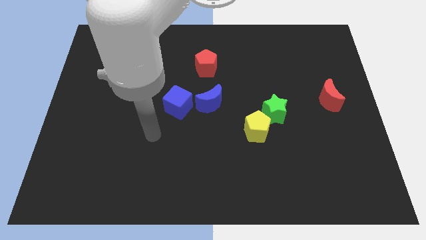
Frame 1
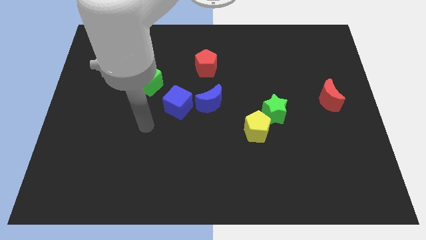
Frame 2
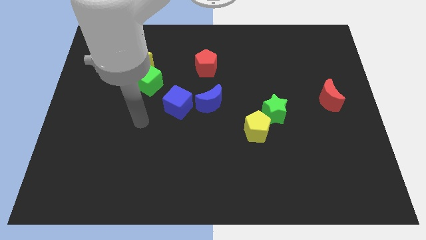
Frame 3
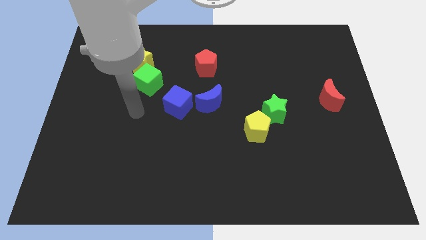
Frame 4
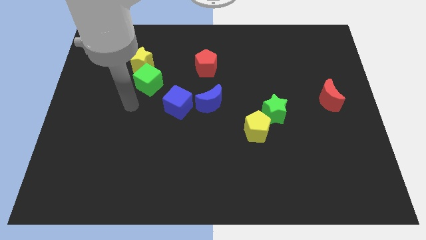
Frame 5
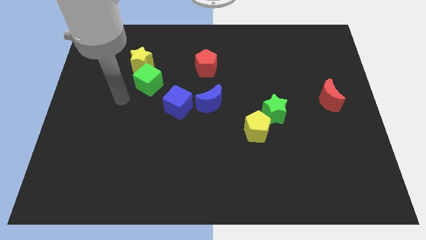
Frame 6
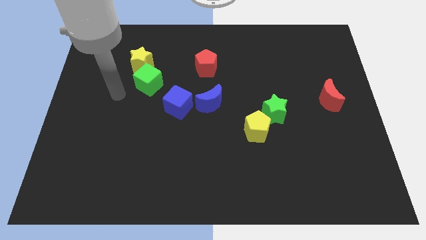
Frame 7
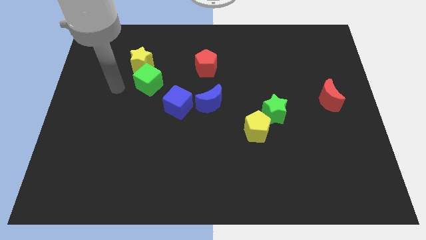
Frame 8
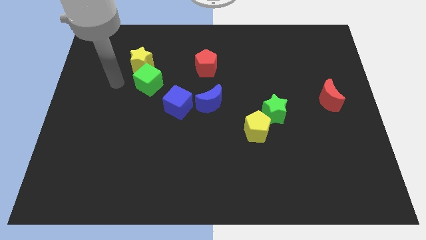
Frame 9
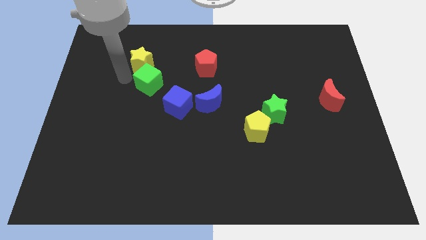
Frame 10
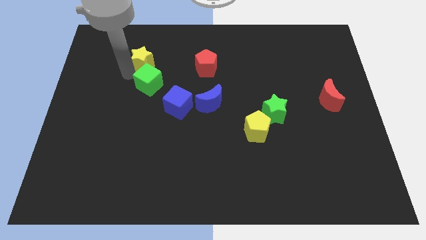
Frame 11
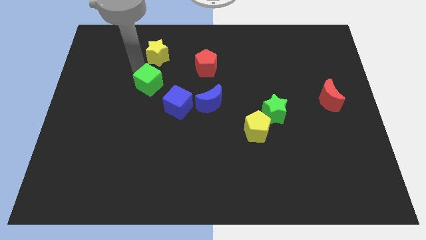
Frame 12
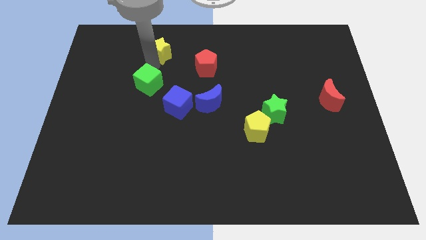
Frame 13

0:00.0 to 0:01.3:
move the green cube away from the yellow star

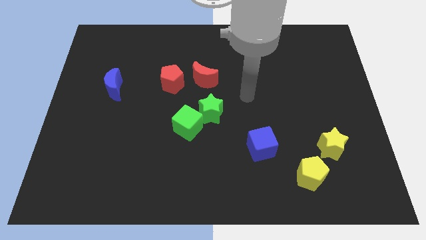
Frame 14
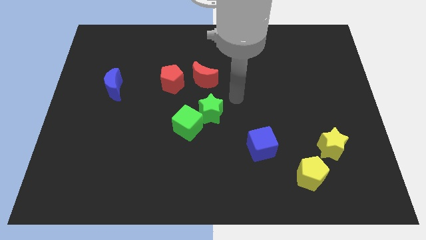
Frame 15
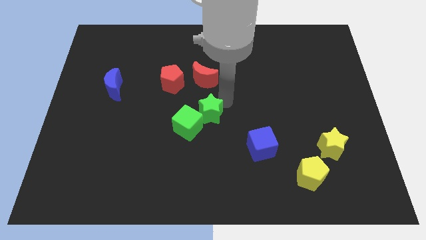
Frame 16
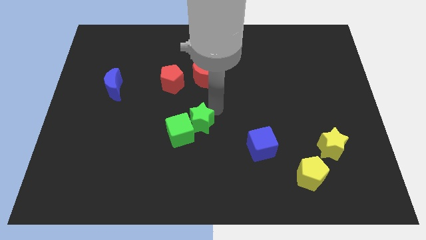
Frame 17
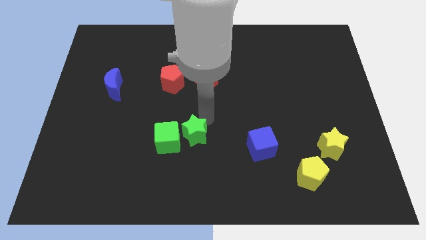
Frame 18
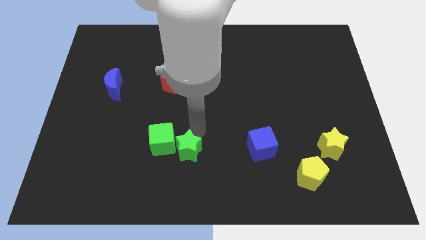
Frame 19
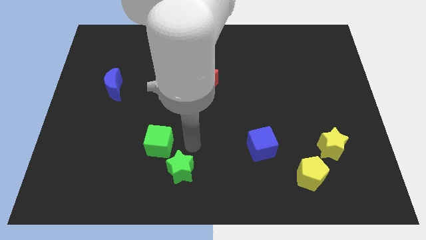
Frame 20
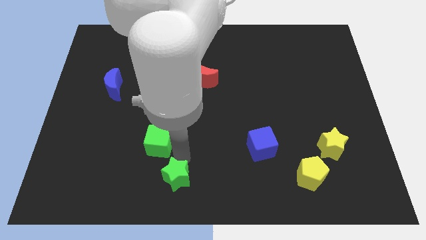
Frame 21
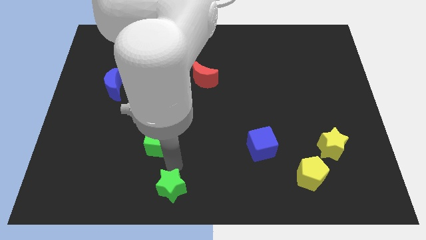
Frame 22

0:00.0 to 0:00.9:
pull the green cube apart from the green star

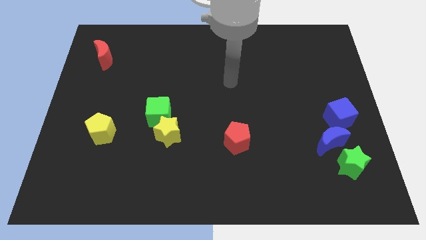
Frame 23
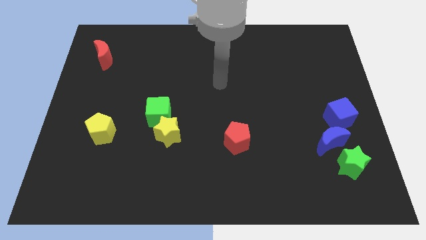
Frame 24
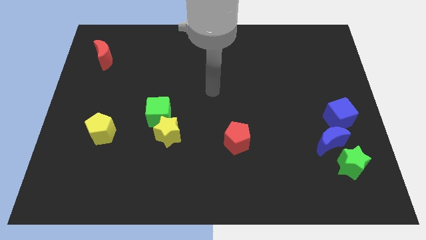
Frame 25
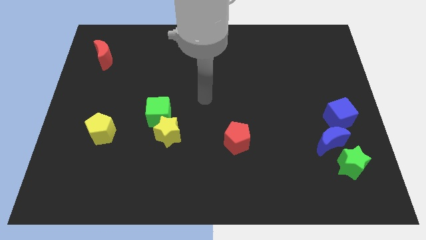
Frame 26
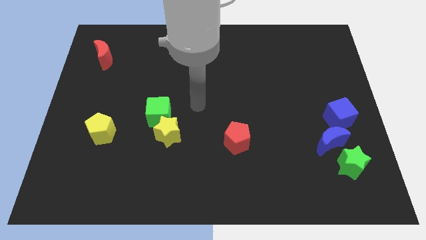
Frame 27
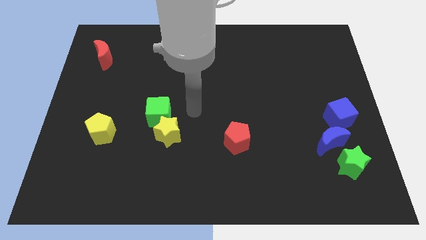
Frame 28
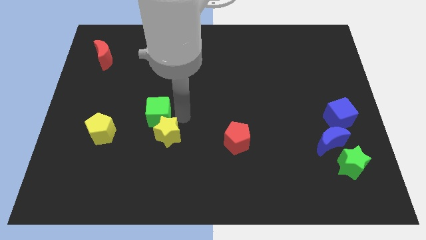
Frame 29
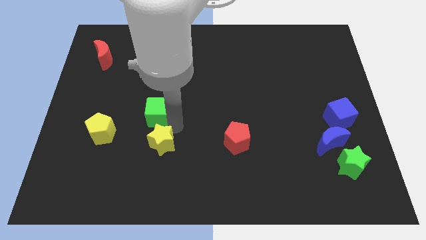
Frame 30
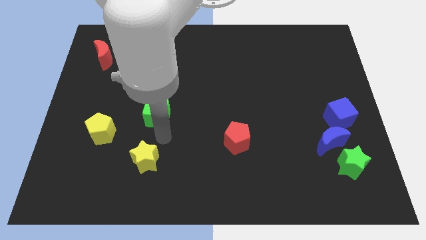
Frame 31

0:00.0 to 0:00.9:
pull the green cube apart from the yellow star

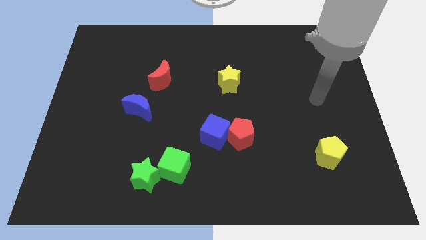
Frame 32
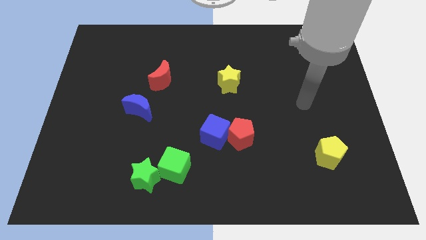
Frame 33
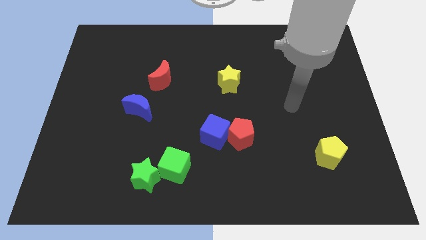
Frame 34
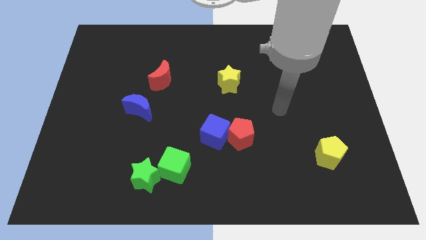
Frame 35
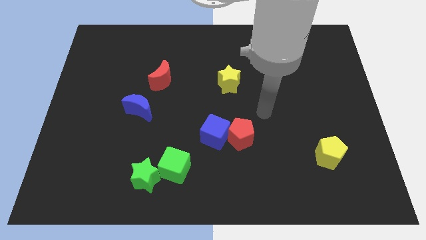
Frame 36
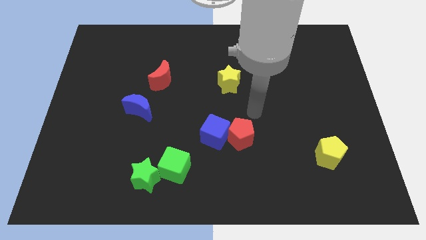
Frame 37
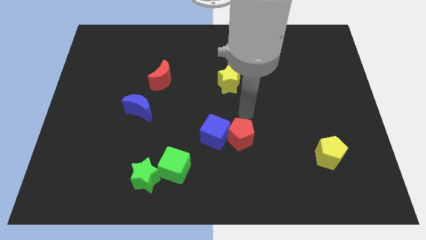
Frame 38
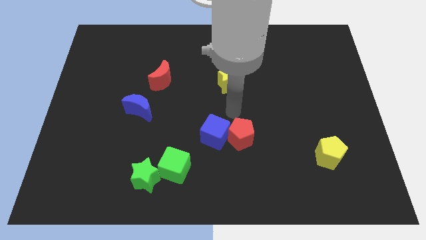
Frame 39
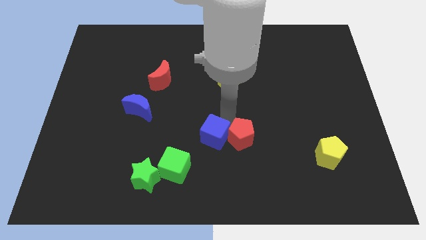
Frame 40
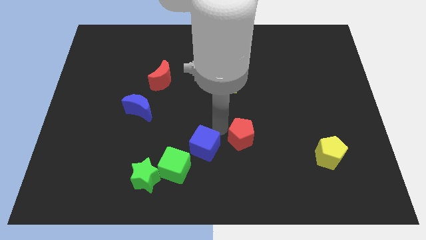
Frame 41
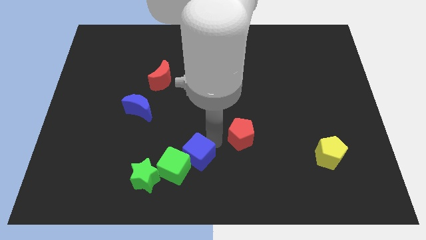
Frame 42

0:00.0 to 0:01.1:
move the red pentagon away from the blue cube

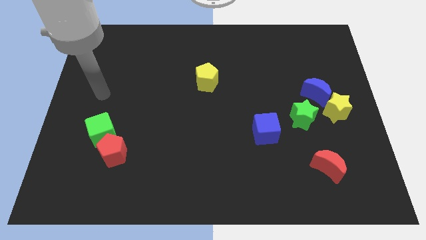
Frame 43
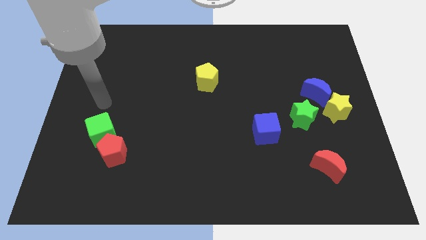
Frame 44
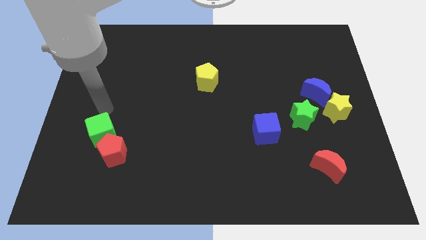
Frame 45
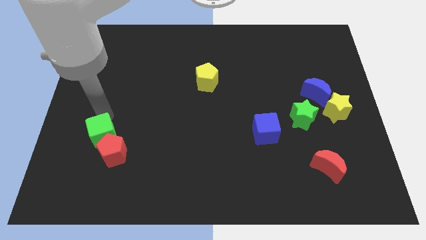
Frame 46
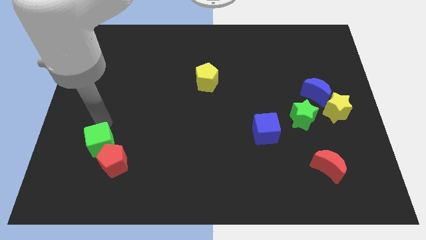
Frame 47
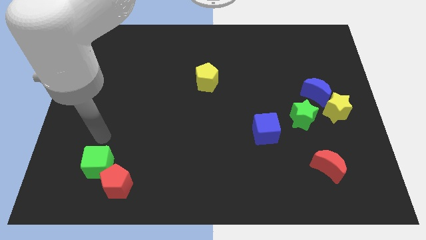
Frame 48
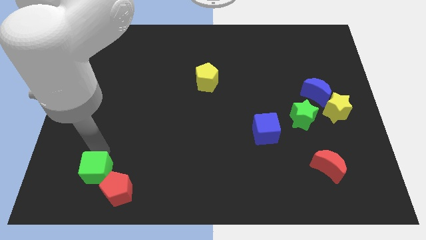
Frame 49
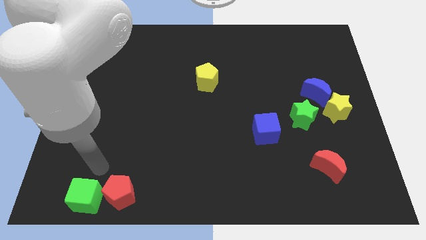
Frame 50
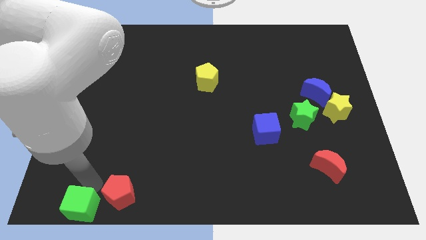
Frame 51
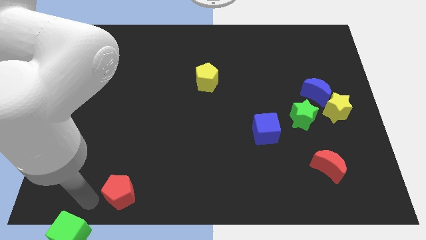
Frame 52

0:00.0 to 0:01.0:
separate the red pentagon from the green cube

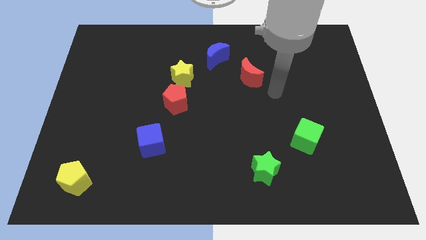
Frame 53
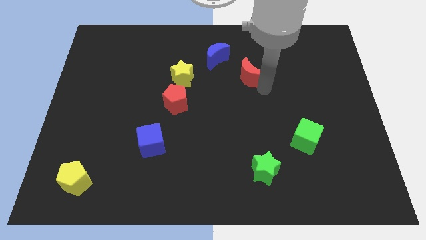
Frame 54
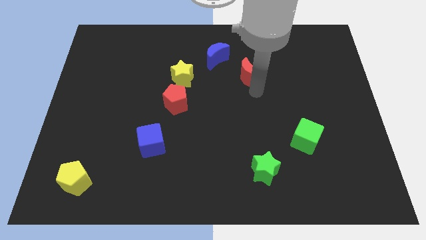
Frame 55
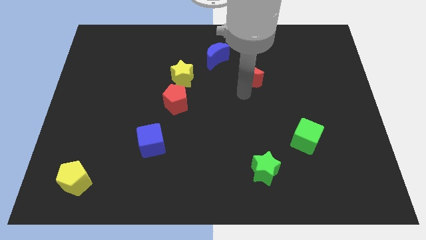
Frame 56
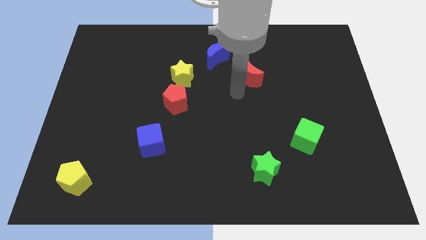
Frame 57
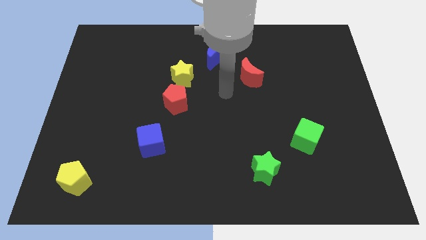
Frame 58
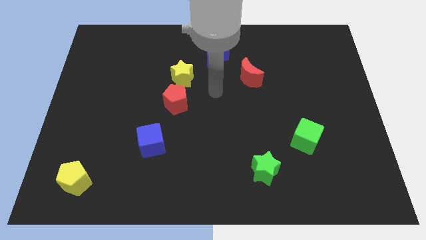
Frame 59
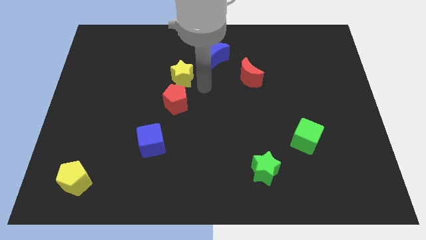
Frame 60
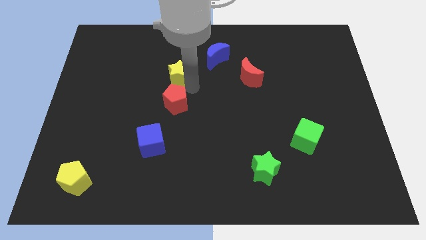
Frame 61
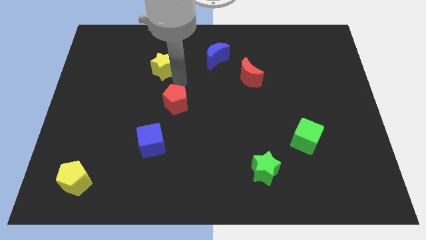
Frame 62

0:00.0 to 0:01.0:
separate the red pentagon from the yellow star

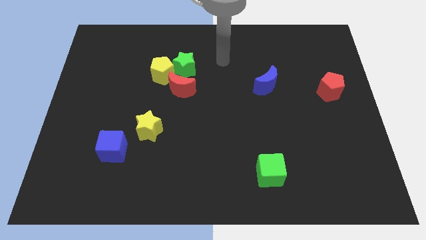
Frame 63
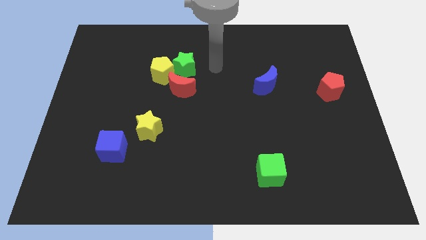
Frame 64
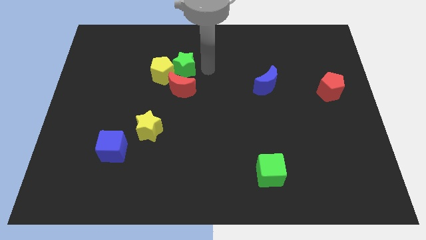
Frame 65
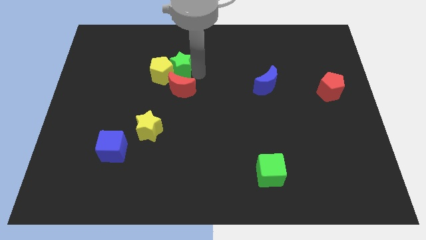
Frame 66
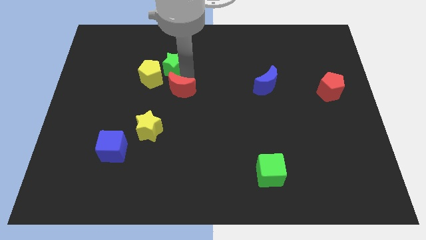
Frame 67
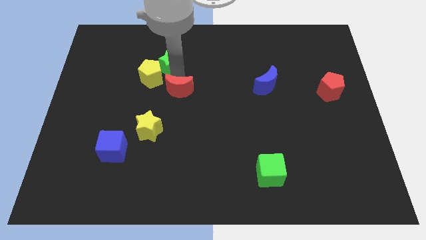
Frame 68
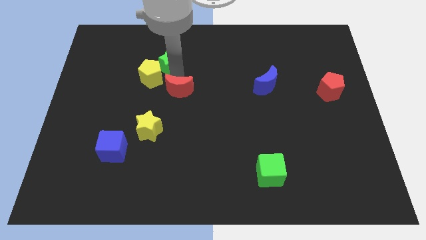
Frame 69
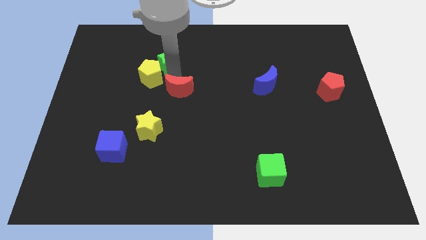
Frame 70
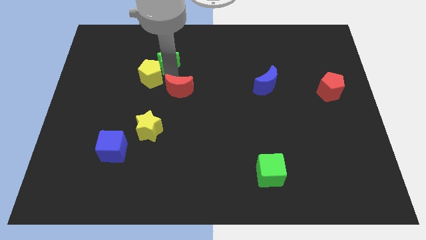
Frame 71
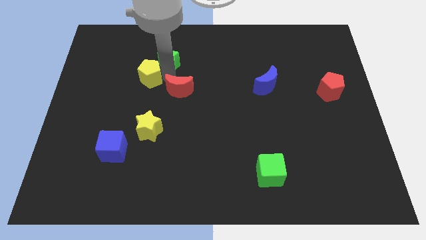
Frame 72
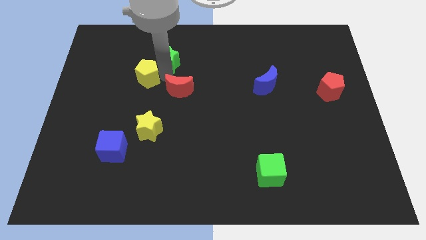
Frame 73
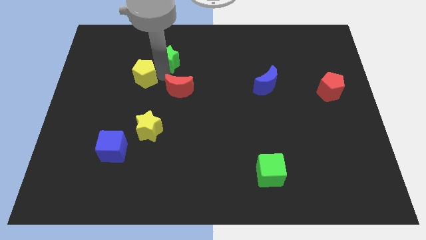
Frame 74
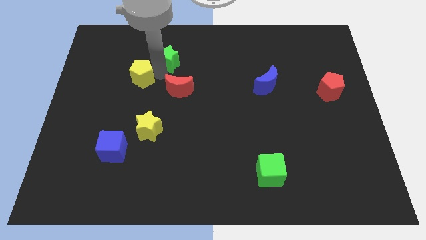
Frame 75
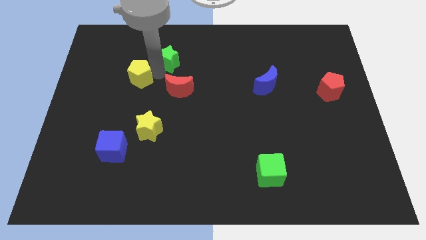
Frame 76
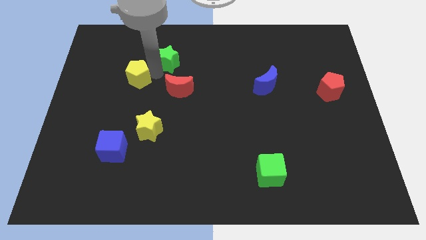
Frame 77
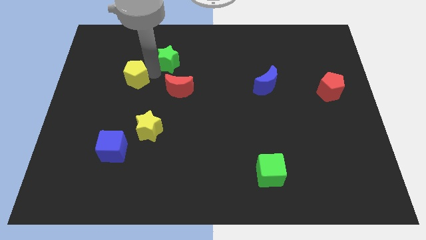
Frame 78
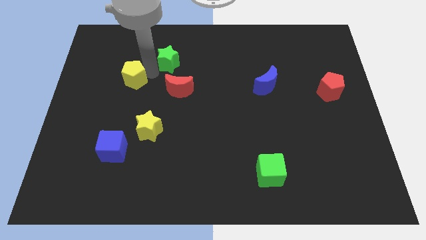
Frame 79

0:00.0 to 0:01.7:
pull the yellow pentagon apart from the green star and red moon

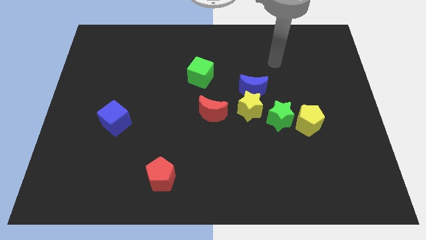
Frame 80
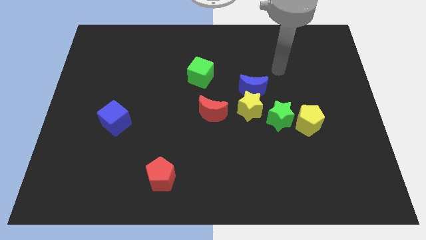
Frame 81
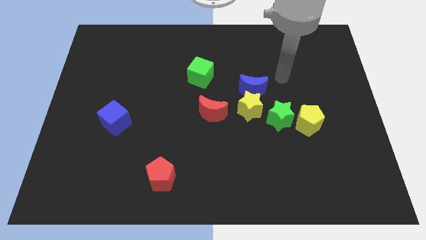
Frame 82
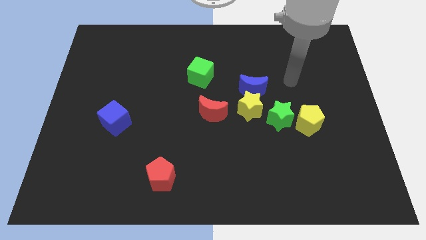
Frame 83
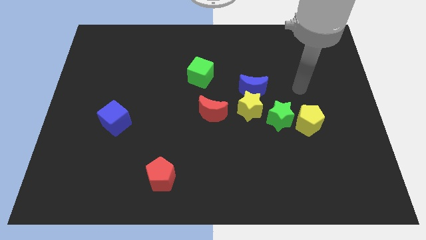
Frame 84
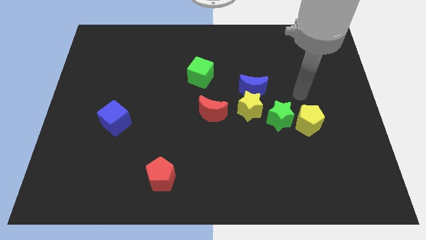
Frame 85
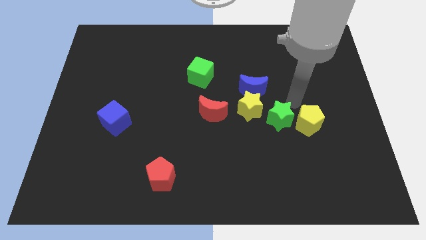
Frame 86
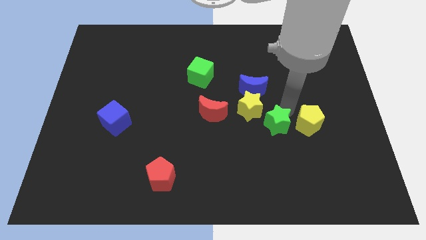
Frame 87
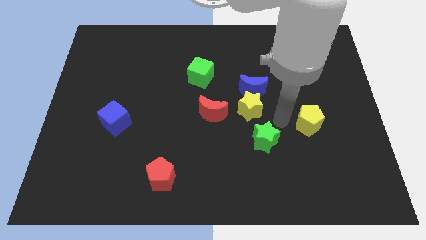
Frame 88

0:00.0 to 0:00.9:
move the yellow pentagon away from the green star

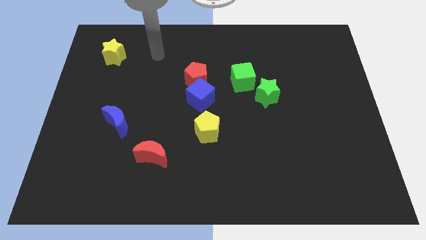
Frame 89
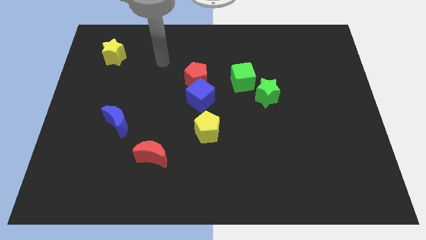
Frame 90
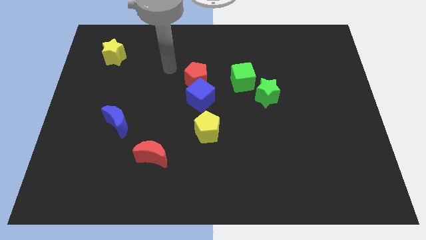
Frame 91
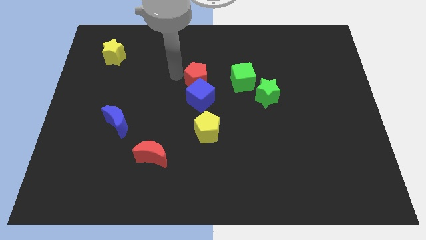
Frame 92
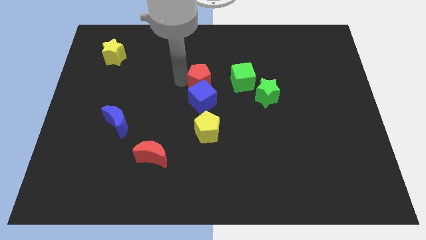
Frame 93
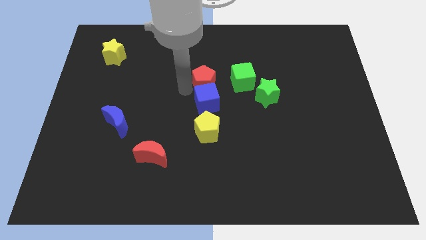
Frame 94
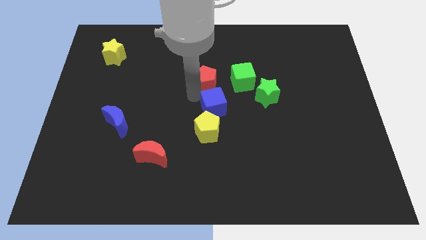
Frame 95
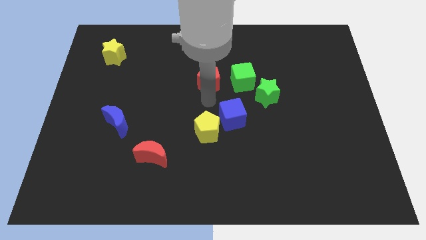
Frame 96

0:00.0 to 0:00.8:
pull the red pentagon apart from the blue cube
